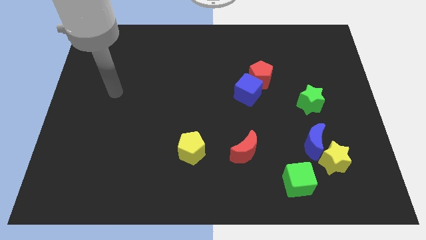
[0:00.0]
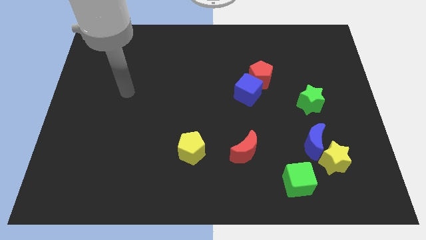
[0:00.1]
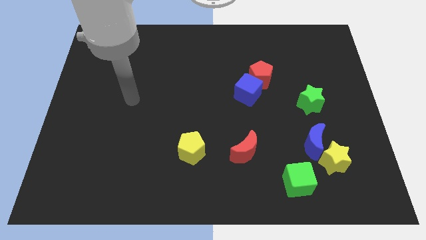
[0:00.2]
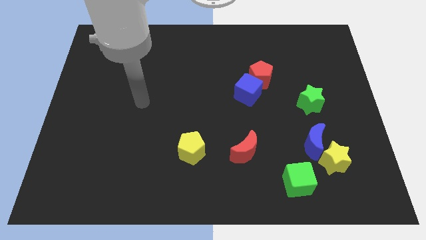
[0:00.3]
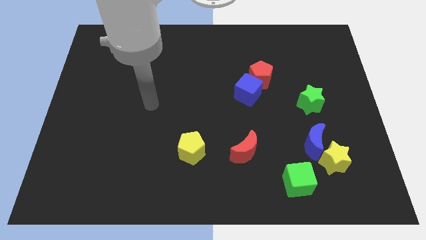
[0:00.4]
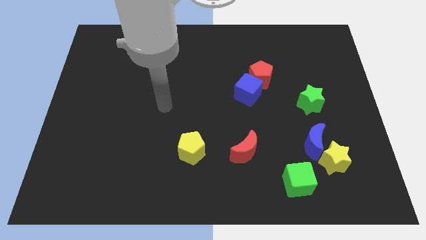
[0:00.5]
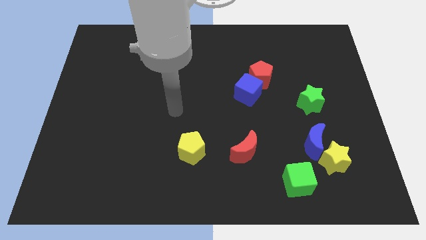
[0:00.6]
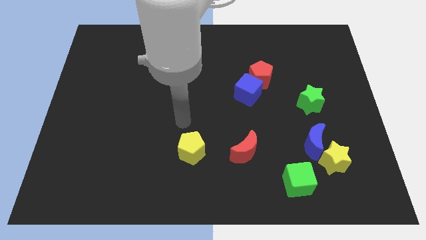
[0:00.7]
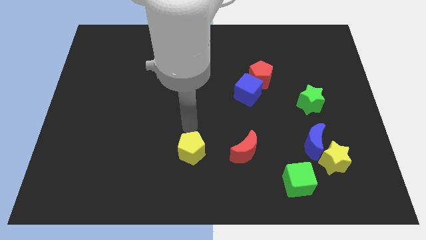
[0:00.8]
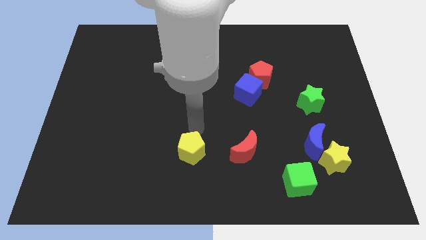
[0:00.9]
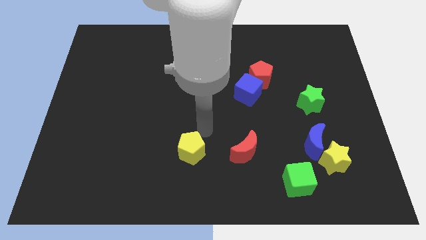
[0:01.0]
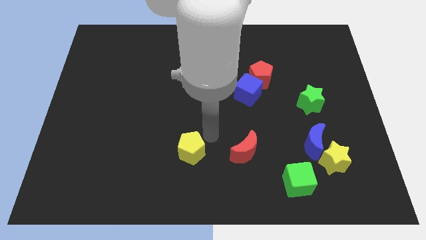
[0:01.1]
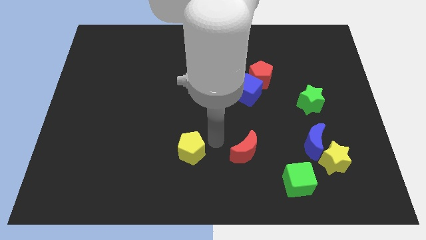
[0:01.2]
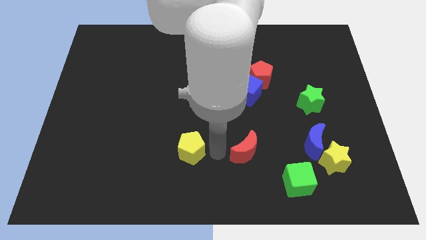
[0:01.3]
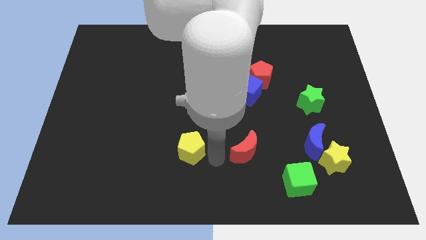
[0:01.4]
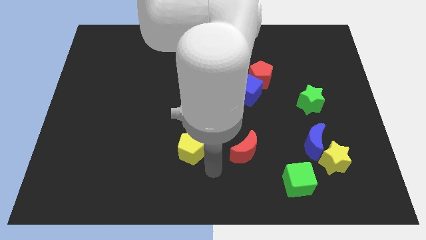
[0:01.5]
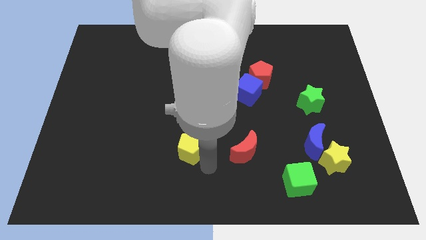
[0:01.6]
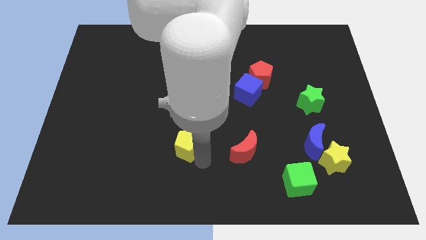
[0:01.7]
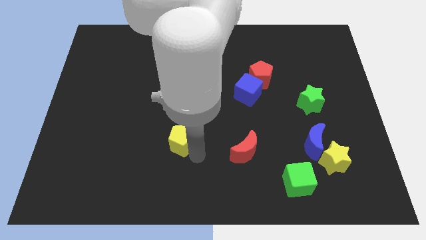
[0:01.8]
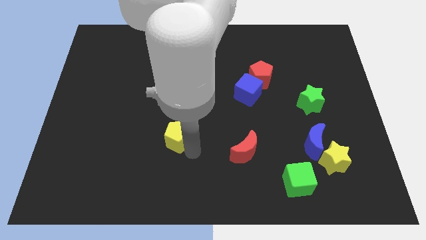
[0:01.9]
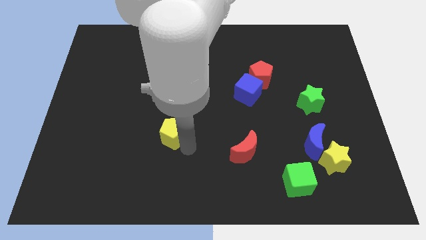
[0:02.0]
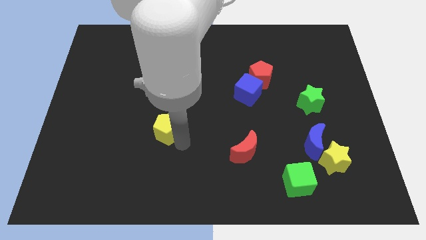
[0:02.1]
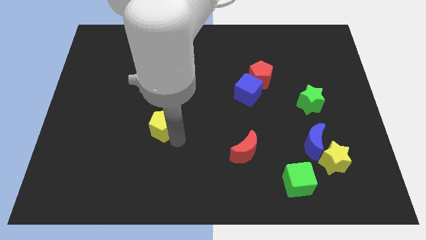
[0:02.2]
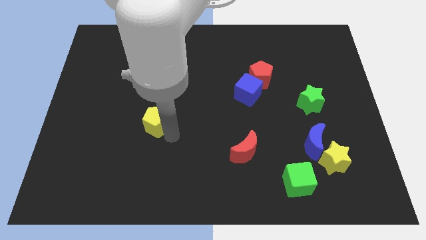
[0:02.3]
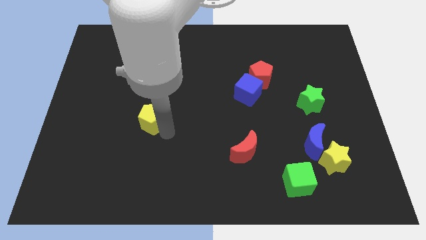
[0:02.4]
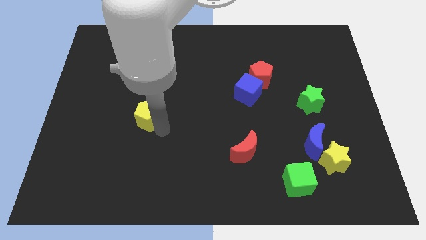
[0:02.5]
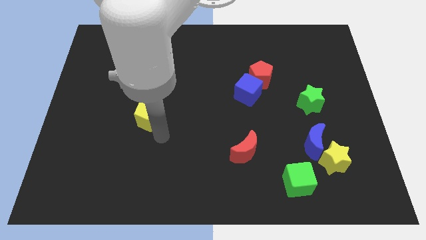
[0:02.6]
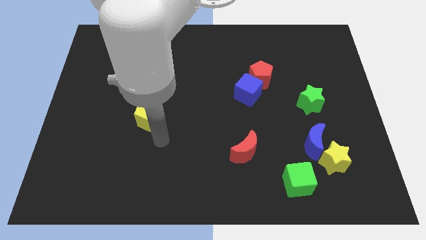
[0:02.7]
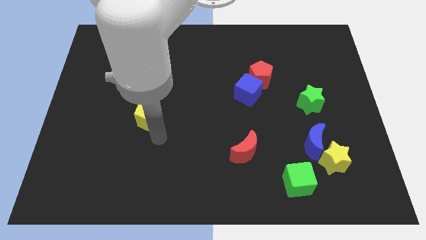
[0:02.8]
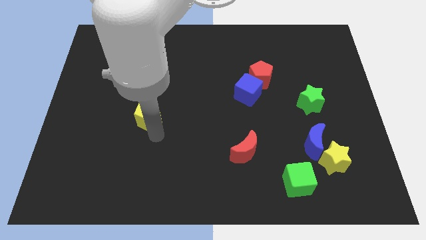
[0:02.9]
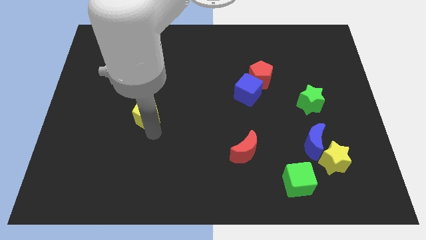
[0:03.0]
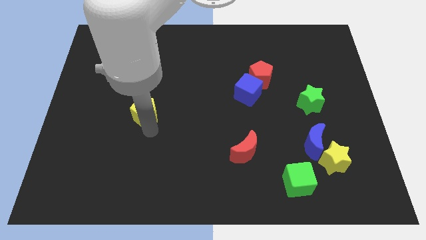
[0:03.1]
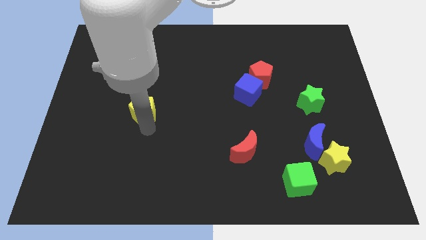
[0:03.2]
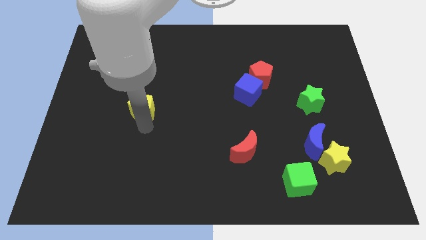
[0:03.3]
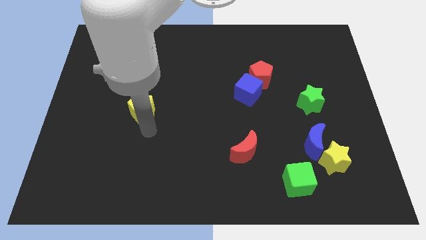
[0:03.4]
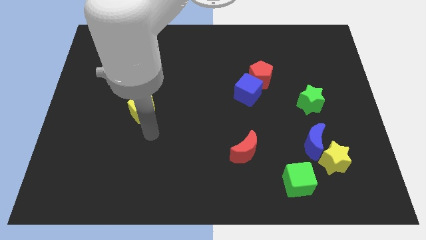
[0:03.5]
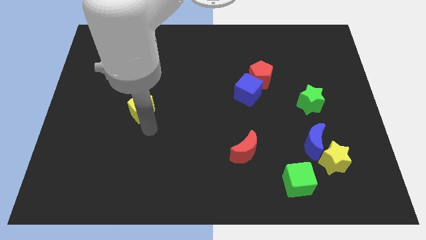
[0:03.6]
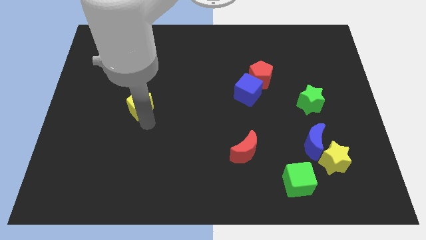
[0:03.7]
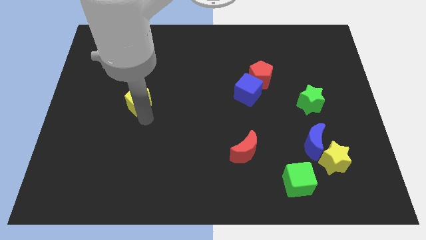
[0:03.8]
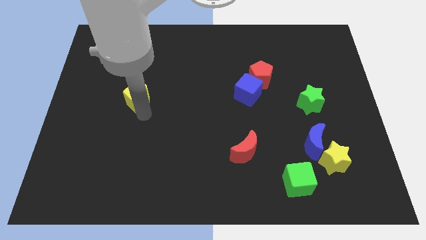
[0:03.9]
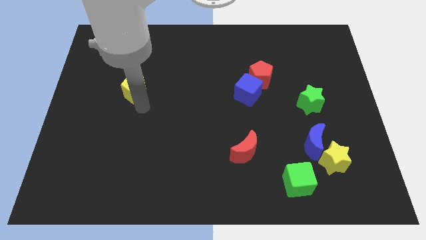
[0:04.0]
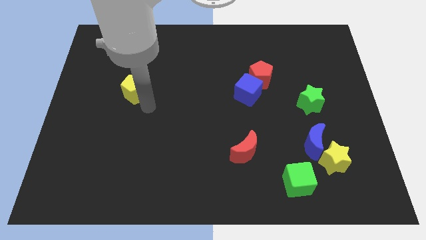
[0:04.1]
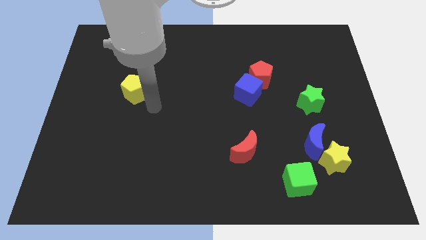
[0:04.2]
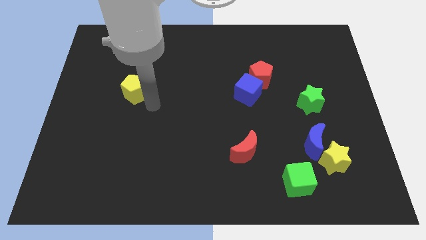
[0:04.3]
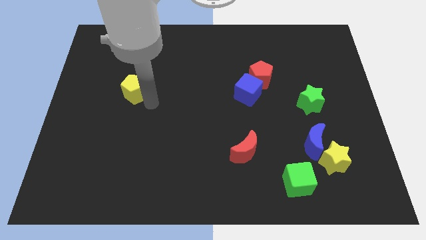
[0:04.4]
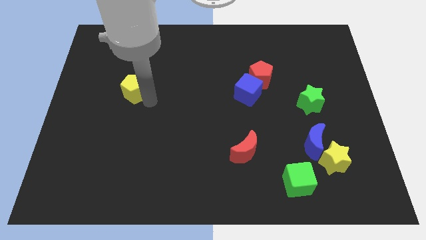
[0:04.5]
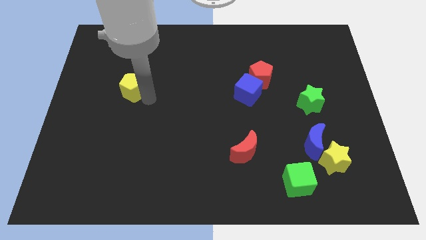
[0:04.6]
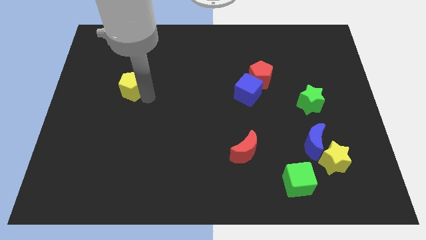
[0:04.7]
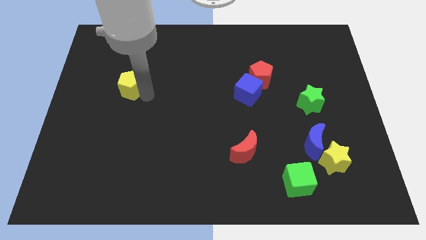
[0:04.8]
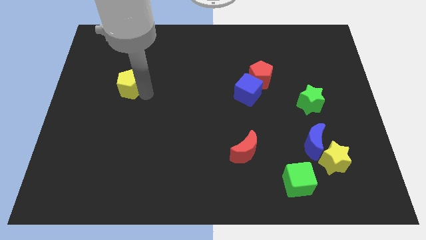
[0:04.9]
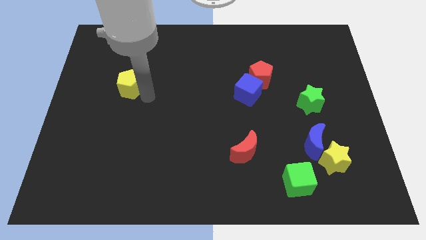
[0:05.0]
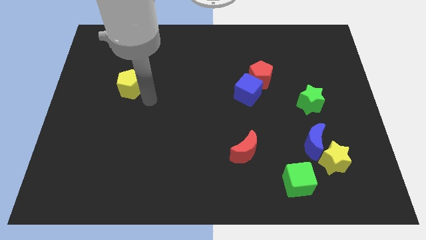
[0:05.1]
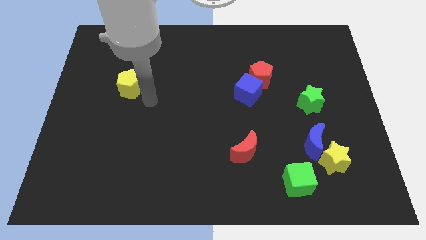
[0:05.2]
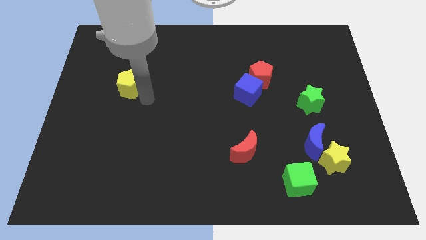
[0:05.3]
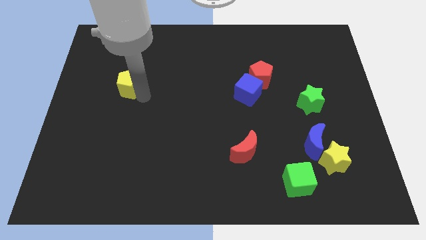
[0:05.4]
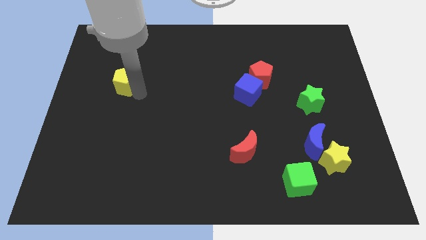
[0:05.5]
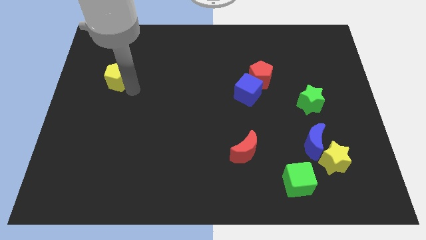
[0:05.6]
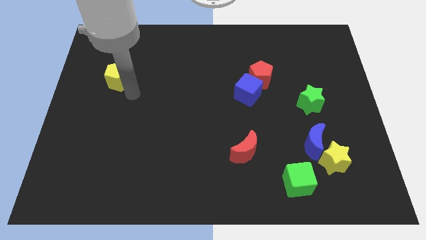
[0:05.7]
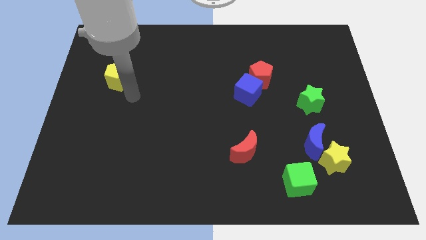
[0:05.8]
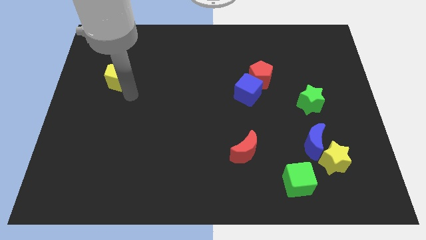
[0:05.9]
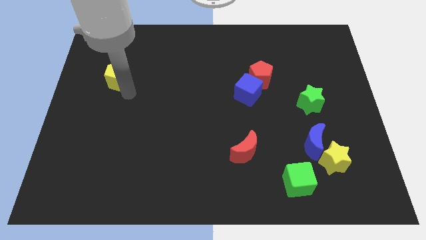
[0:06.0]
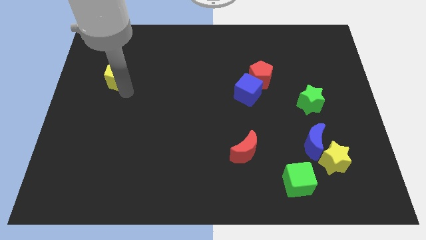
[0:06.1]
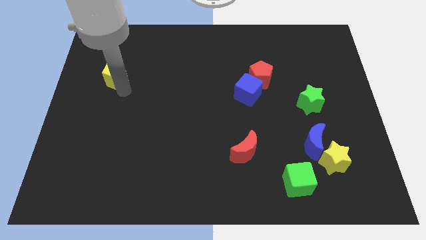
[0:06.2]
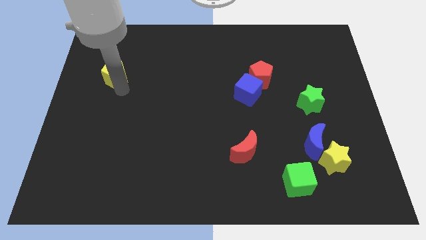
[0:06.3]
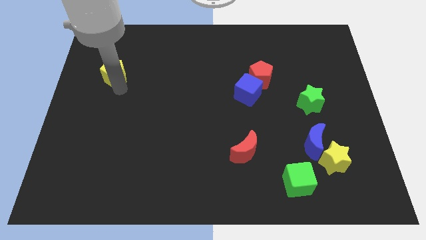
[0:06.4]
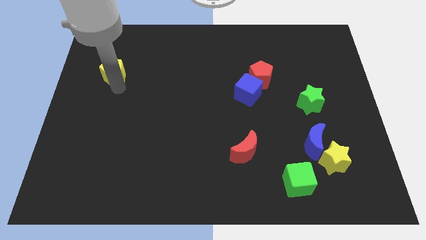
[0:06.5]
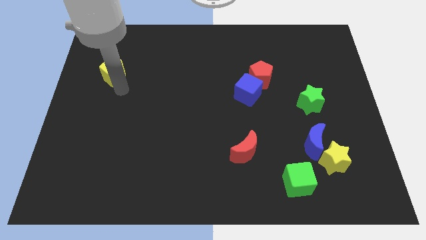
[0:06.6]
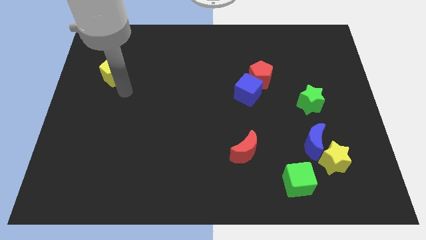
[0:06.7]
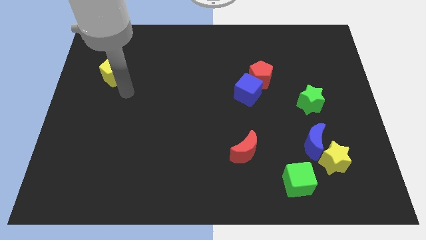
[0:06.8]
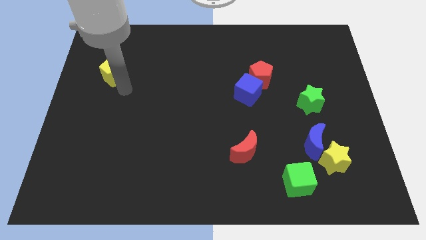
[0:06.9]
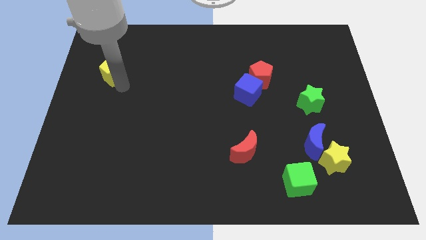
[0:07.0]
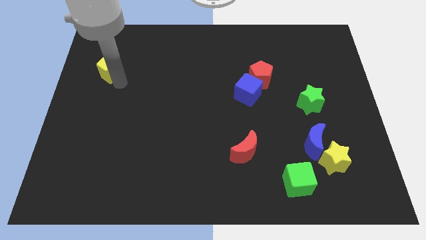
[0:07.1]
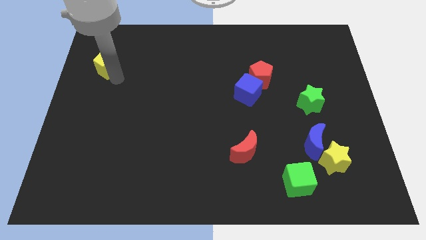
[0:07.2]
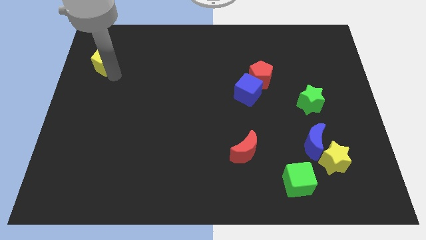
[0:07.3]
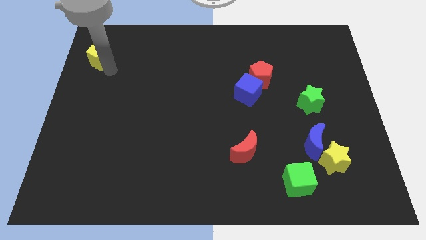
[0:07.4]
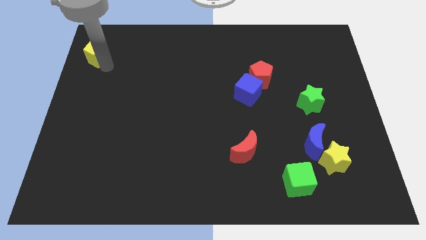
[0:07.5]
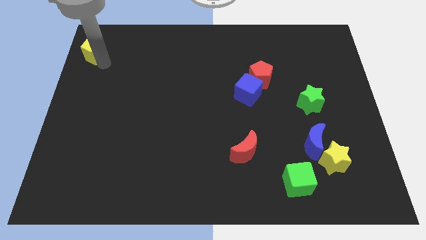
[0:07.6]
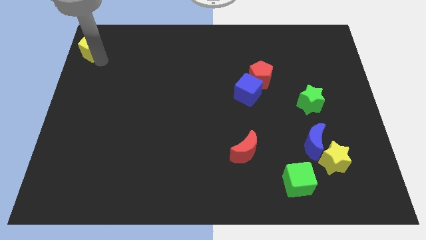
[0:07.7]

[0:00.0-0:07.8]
put the yellow pentagon to the top left corner
